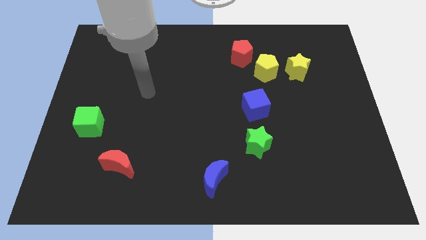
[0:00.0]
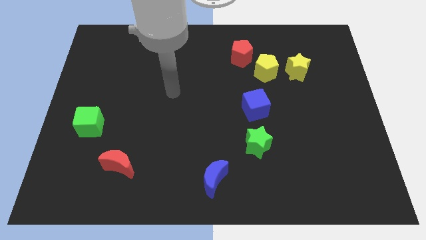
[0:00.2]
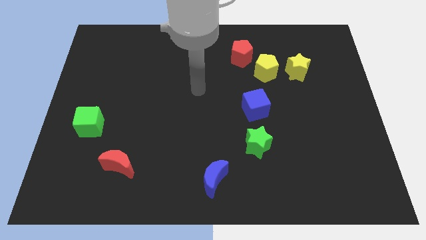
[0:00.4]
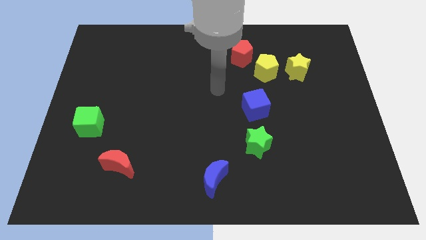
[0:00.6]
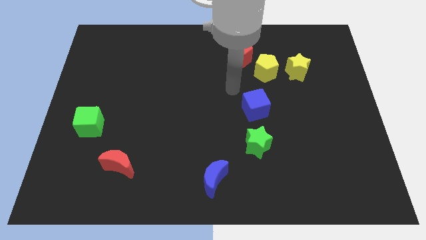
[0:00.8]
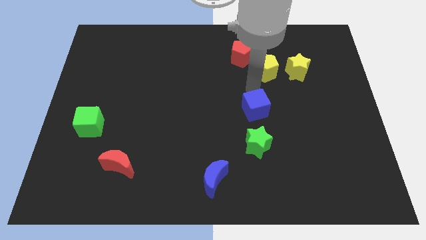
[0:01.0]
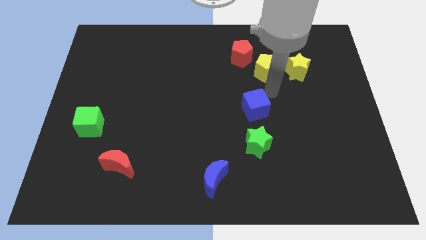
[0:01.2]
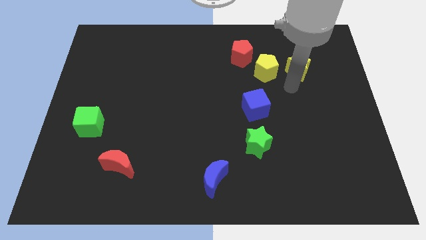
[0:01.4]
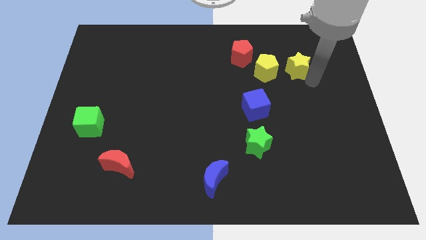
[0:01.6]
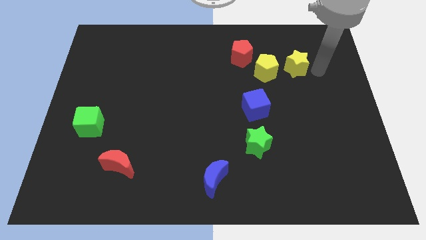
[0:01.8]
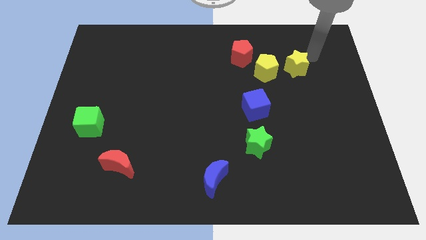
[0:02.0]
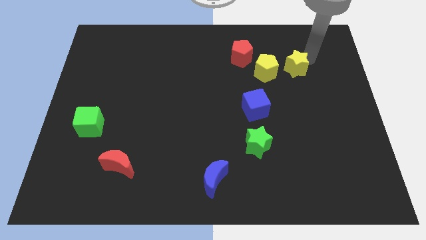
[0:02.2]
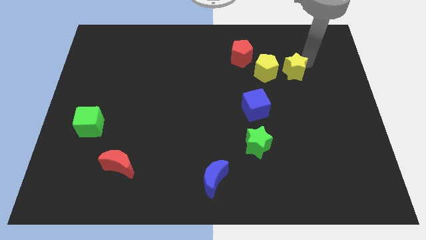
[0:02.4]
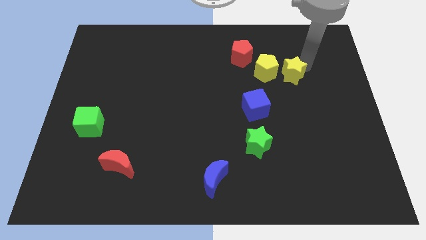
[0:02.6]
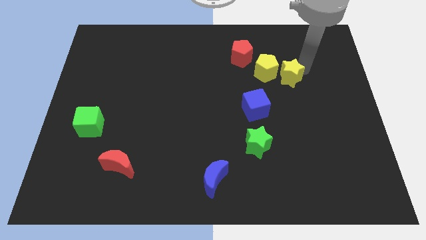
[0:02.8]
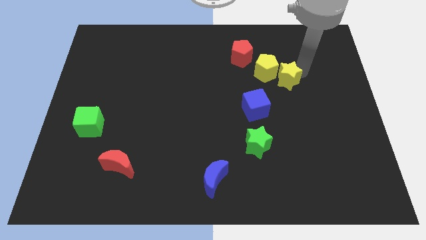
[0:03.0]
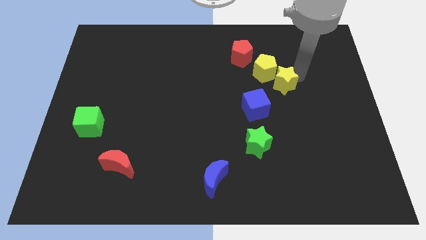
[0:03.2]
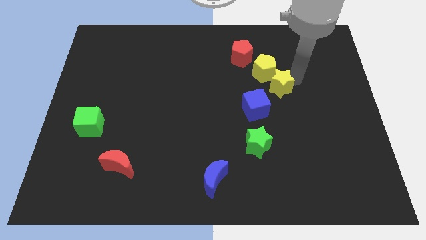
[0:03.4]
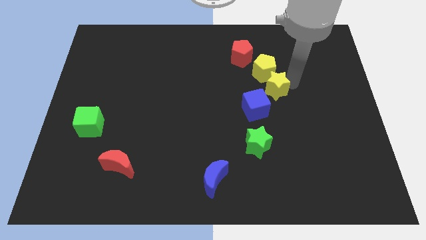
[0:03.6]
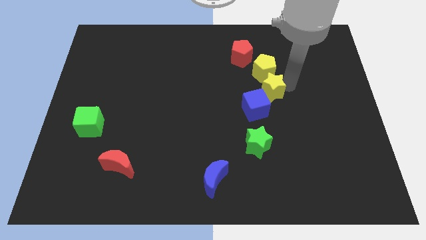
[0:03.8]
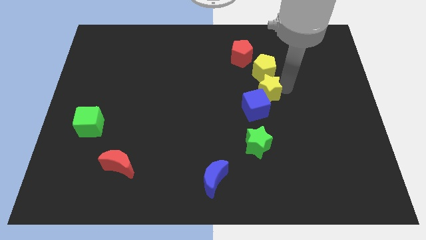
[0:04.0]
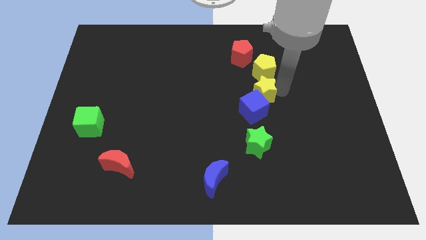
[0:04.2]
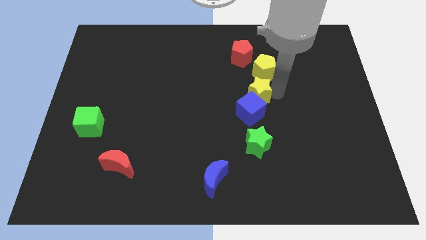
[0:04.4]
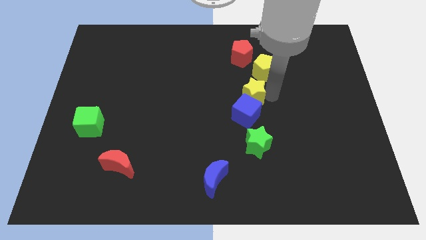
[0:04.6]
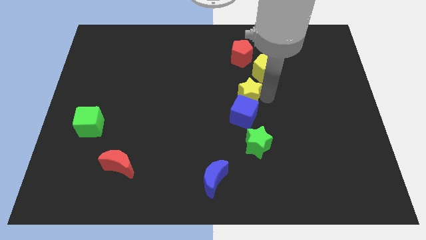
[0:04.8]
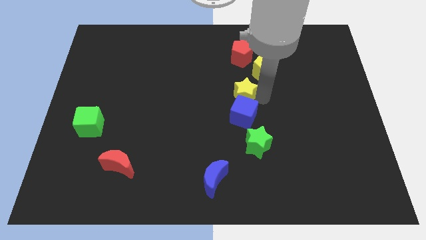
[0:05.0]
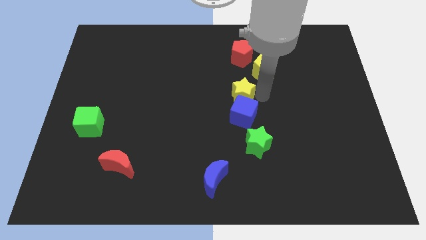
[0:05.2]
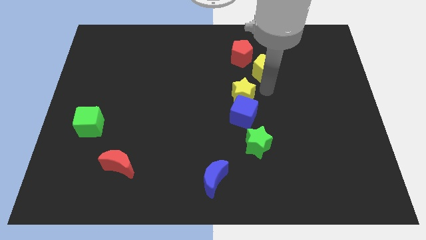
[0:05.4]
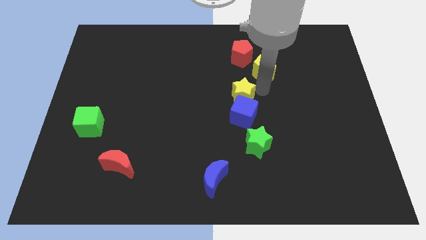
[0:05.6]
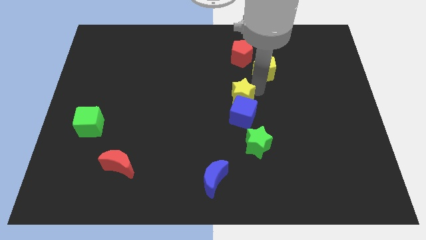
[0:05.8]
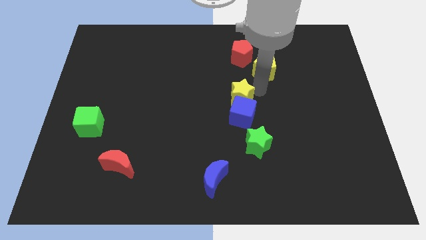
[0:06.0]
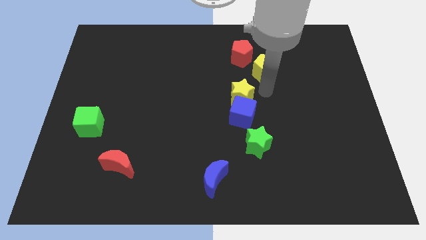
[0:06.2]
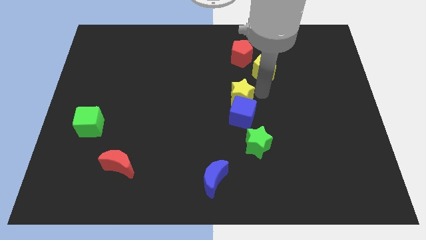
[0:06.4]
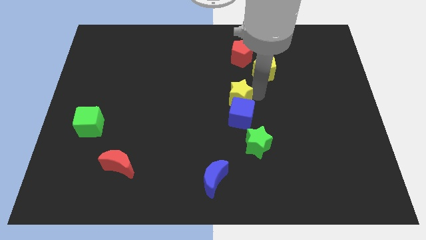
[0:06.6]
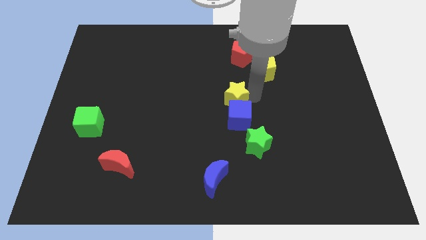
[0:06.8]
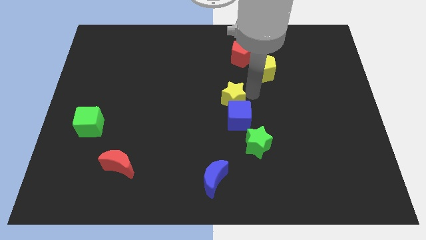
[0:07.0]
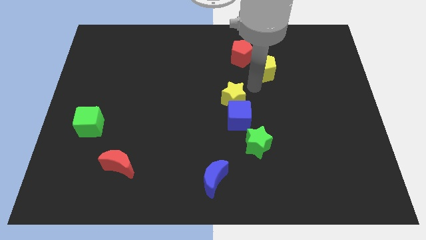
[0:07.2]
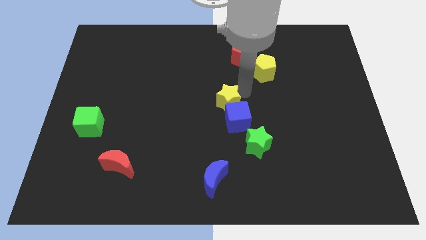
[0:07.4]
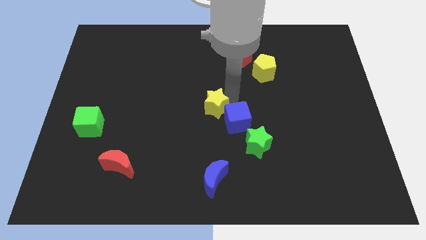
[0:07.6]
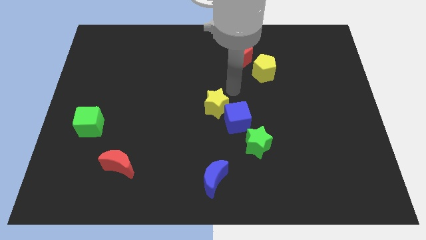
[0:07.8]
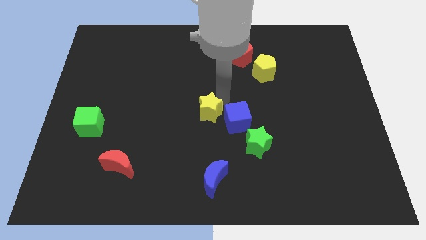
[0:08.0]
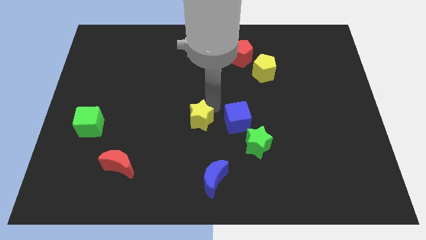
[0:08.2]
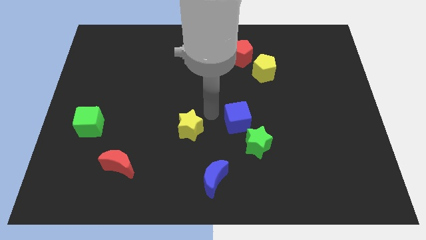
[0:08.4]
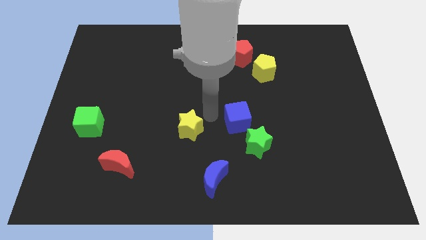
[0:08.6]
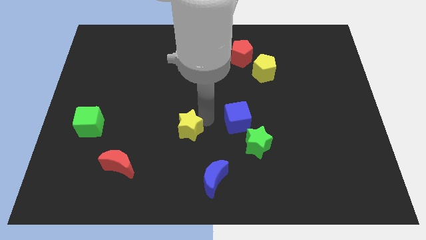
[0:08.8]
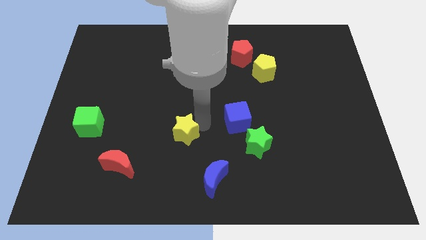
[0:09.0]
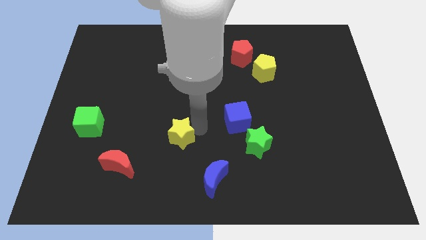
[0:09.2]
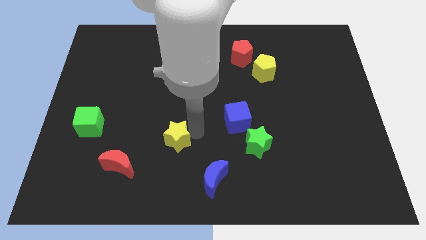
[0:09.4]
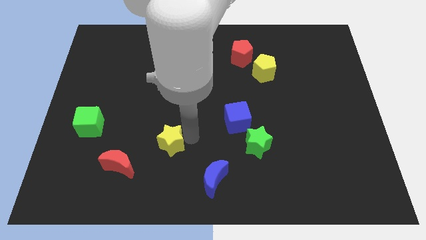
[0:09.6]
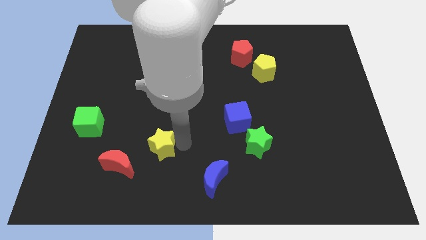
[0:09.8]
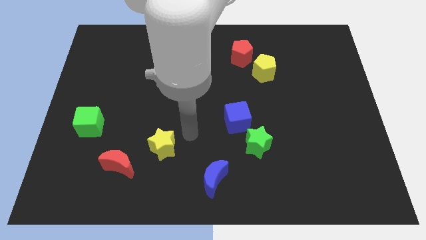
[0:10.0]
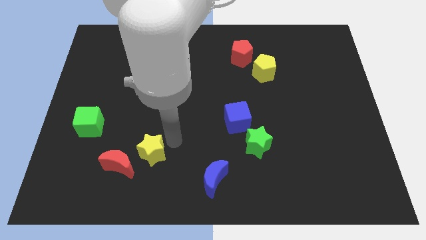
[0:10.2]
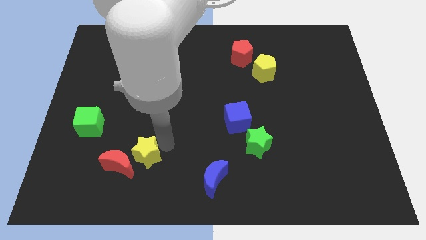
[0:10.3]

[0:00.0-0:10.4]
slide the yellow star close to the red moon

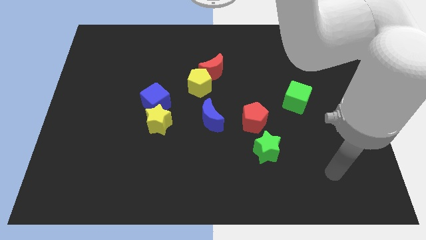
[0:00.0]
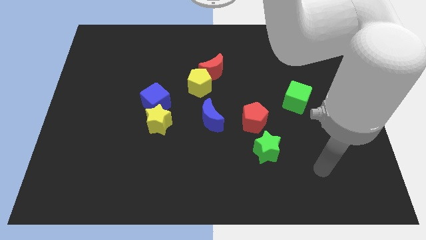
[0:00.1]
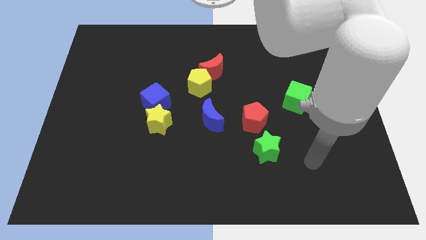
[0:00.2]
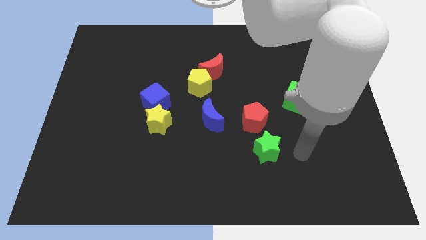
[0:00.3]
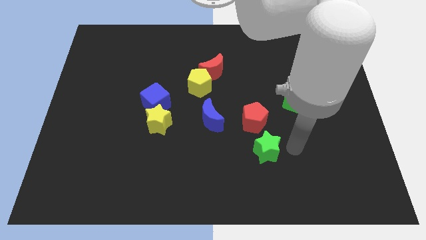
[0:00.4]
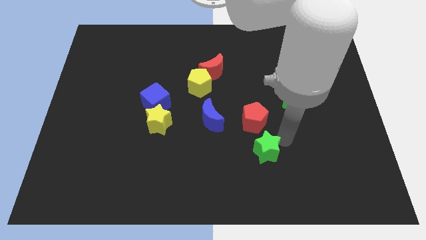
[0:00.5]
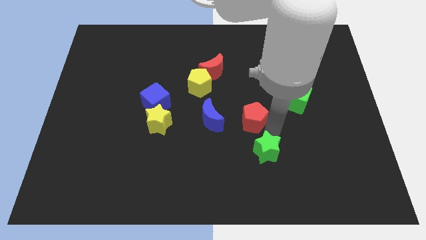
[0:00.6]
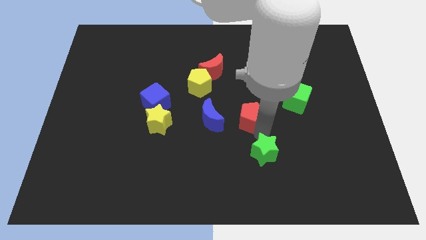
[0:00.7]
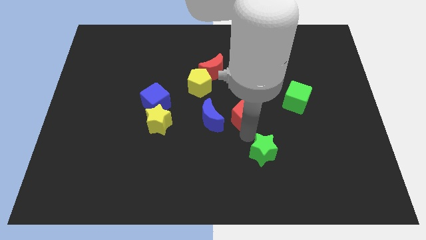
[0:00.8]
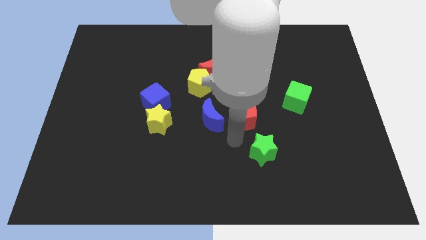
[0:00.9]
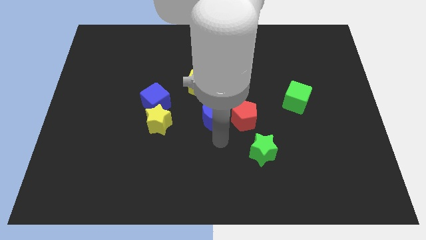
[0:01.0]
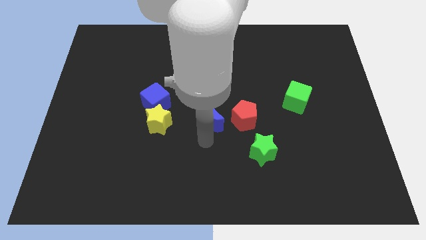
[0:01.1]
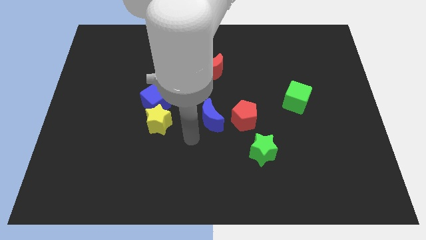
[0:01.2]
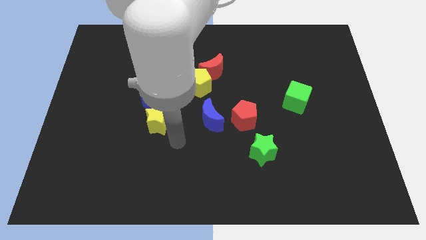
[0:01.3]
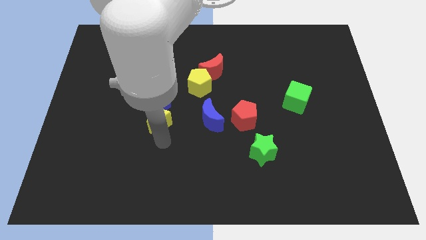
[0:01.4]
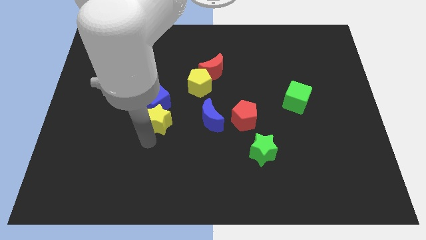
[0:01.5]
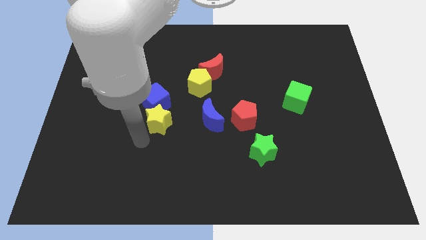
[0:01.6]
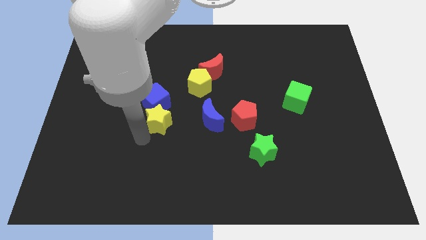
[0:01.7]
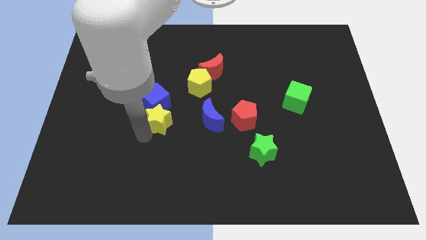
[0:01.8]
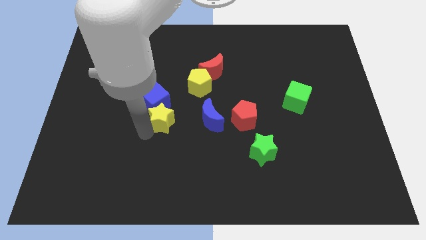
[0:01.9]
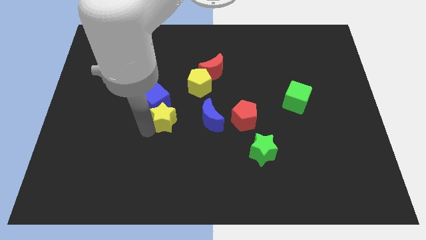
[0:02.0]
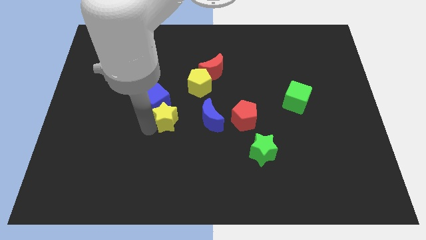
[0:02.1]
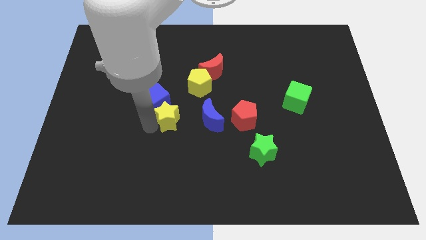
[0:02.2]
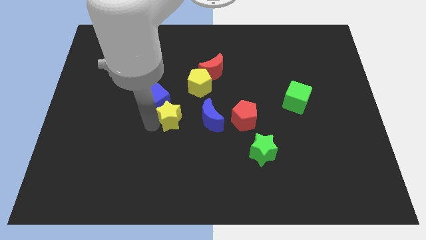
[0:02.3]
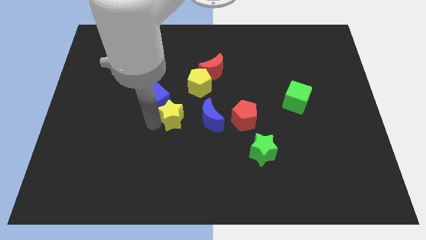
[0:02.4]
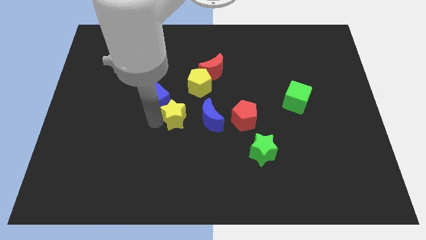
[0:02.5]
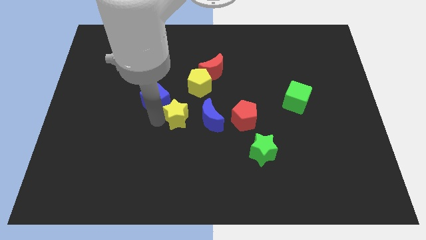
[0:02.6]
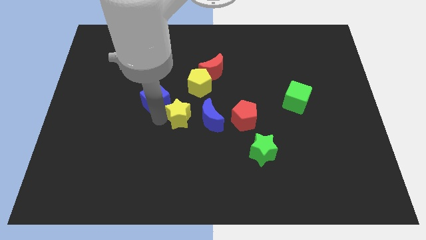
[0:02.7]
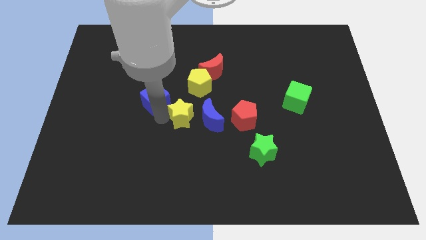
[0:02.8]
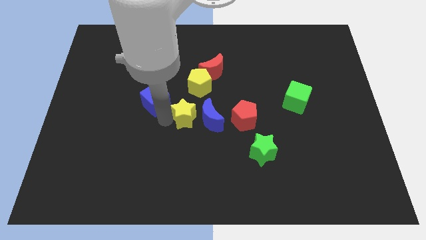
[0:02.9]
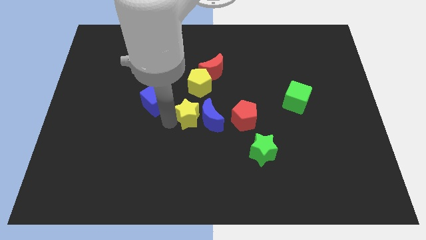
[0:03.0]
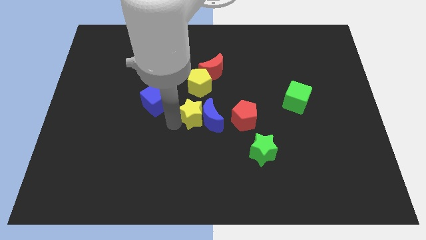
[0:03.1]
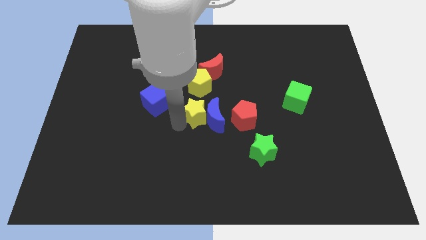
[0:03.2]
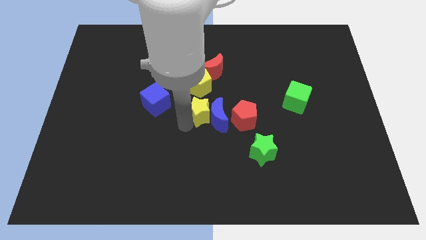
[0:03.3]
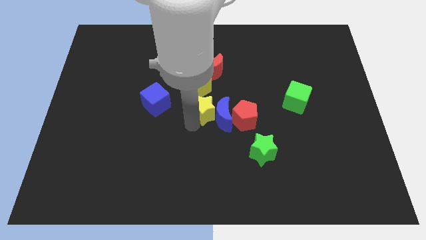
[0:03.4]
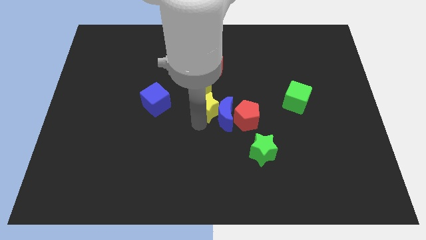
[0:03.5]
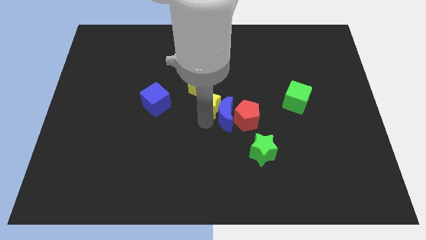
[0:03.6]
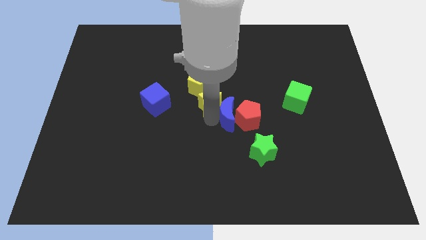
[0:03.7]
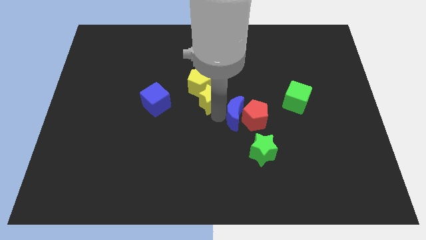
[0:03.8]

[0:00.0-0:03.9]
push the yellow star close to the yellow pentagon
